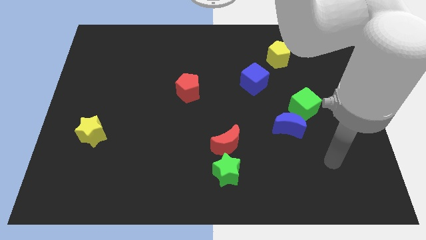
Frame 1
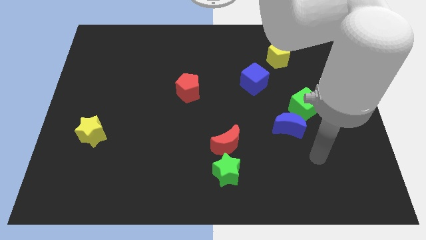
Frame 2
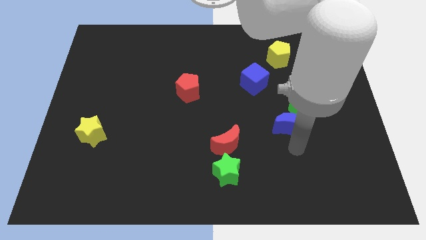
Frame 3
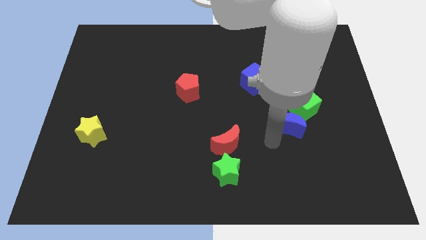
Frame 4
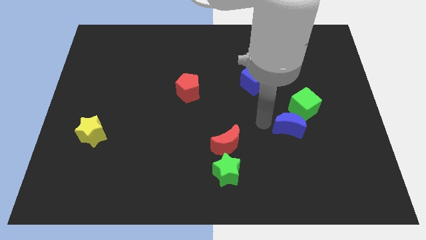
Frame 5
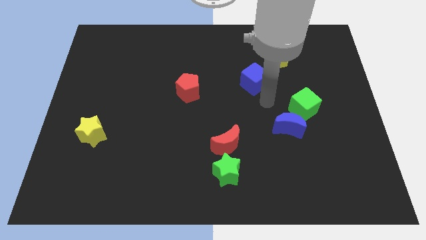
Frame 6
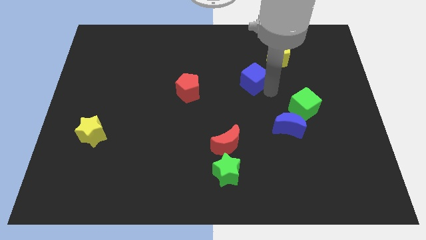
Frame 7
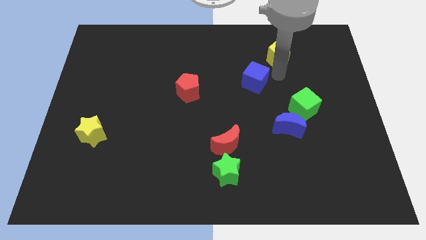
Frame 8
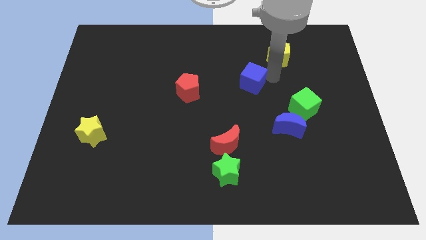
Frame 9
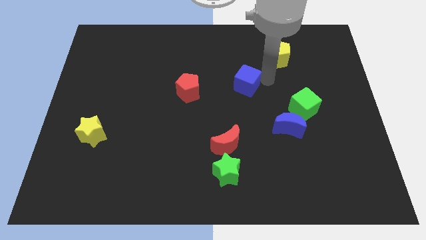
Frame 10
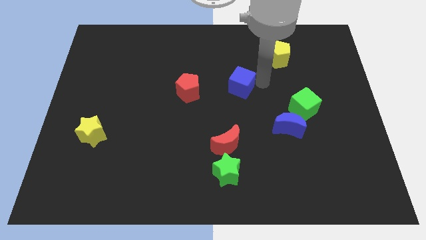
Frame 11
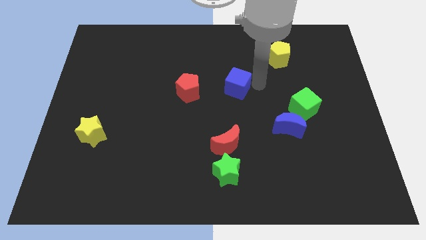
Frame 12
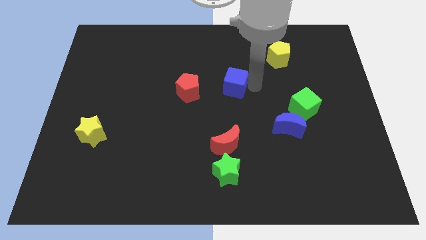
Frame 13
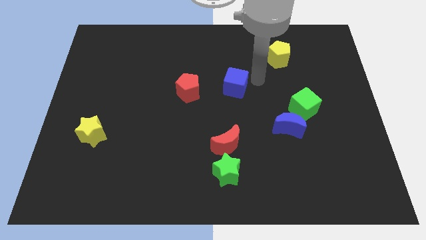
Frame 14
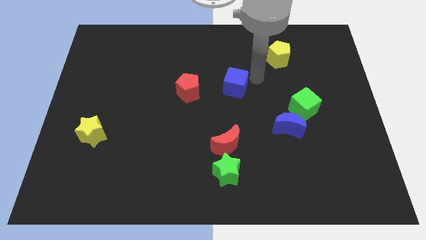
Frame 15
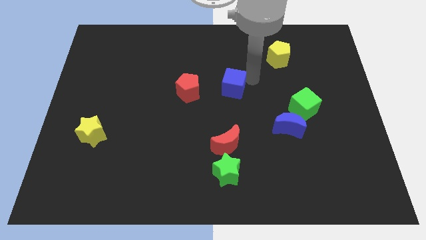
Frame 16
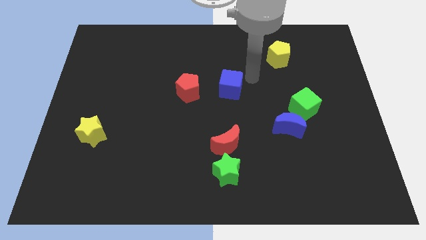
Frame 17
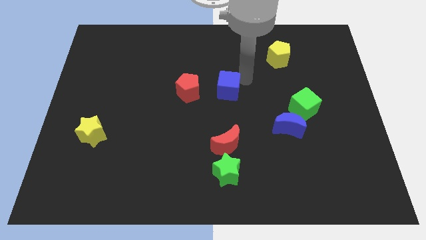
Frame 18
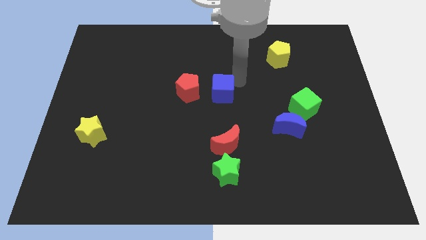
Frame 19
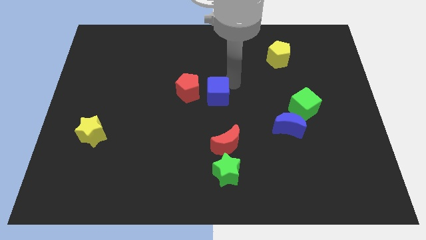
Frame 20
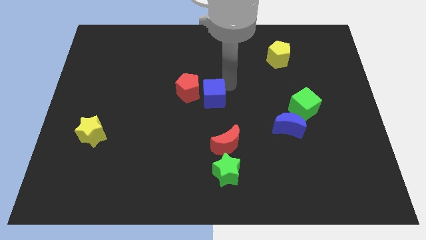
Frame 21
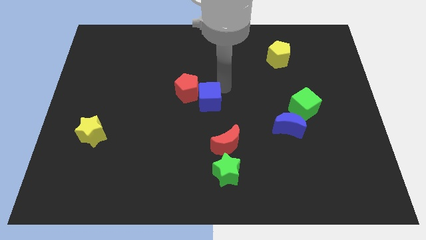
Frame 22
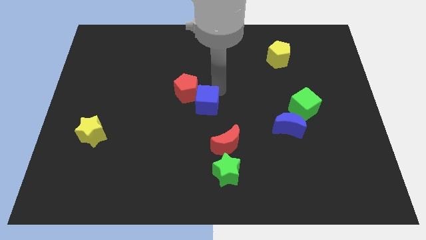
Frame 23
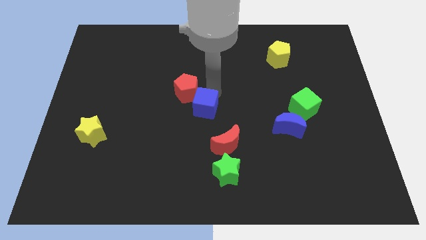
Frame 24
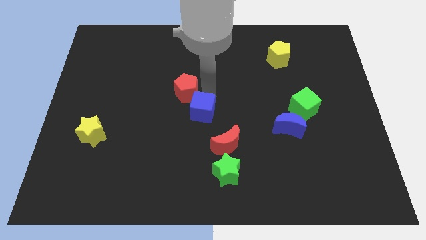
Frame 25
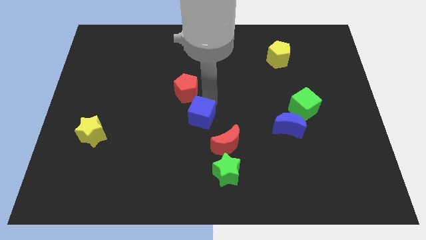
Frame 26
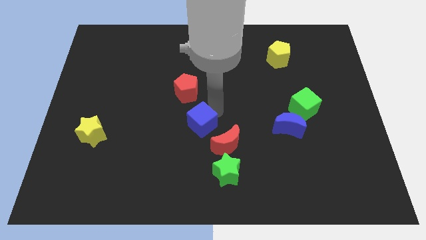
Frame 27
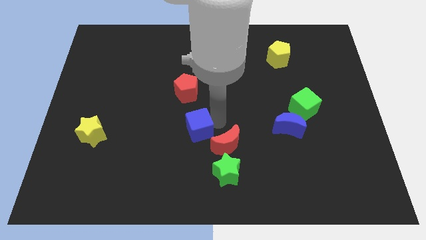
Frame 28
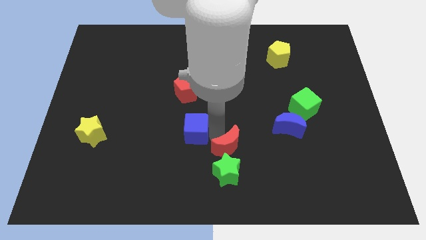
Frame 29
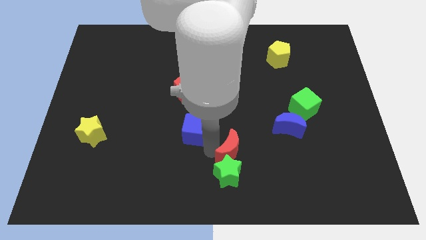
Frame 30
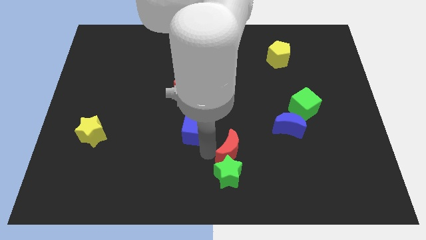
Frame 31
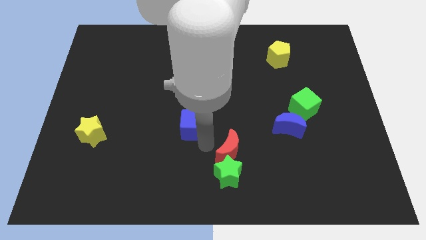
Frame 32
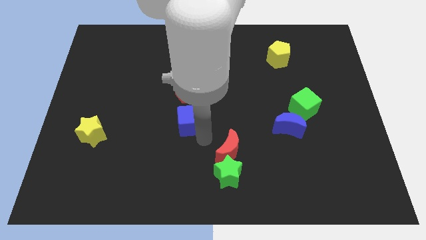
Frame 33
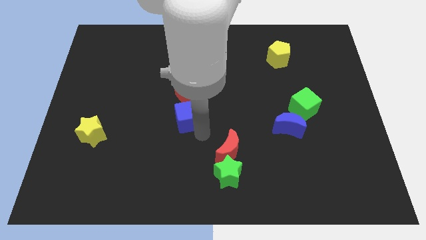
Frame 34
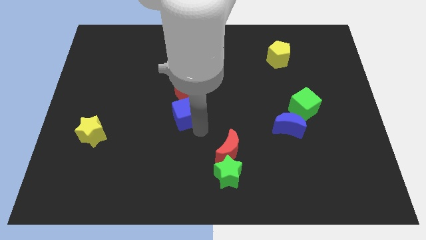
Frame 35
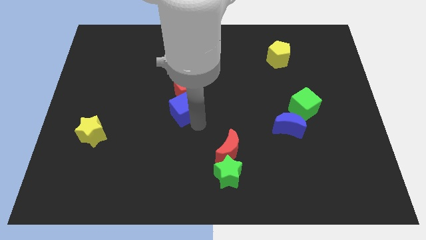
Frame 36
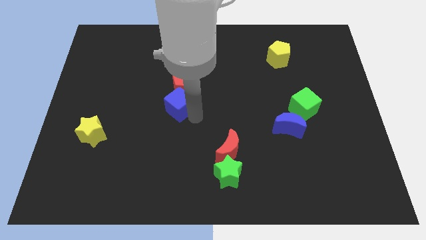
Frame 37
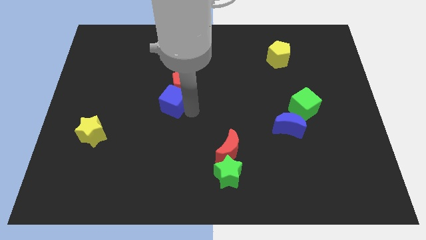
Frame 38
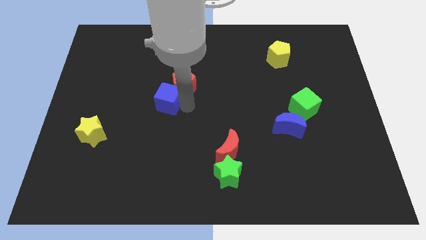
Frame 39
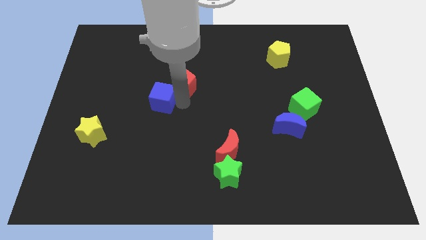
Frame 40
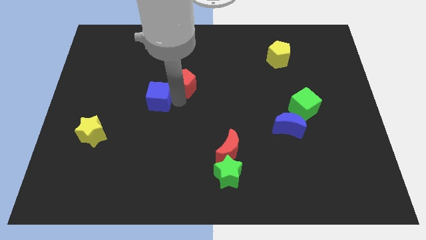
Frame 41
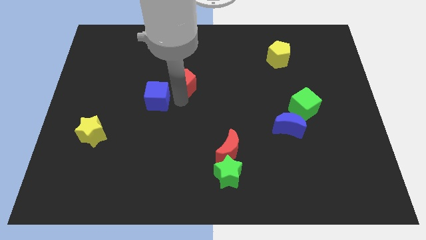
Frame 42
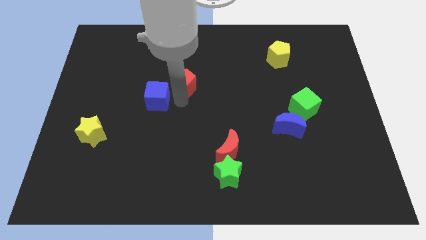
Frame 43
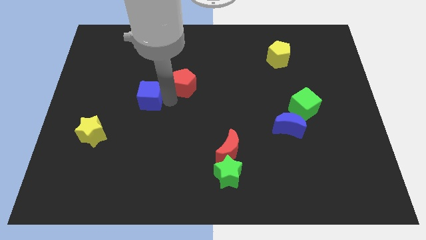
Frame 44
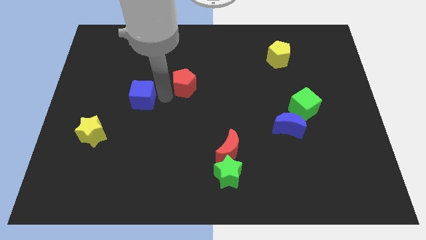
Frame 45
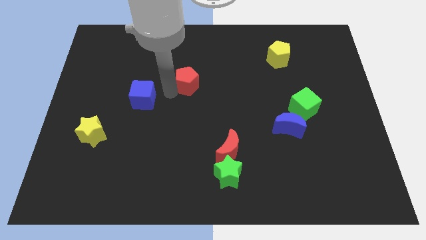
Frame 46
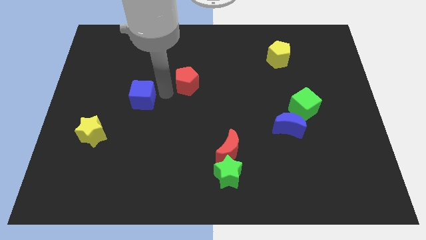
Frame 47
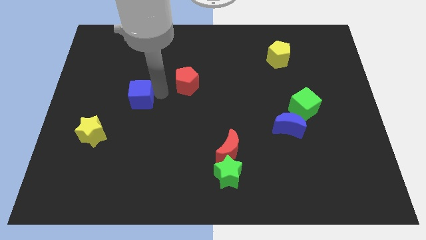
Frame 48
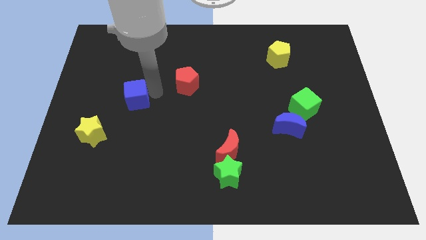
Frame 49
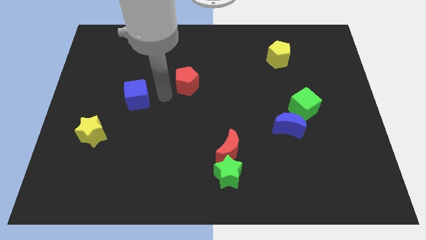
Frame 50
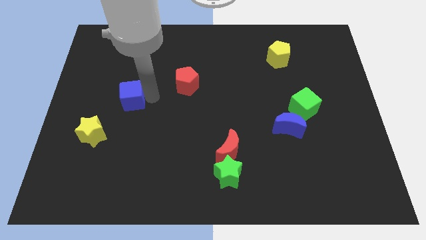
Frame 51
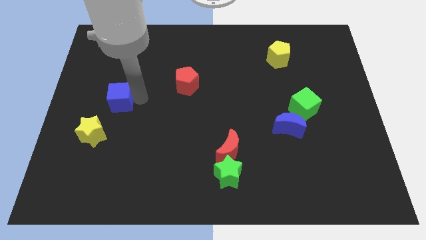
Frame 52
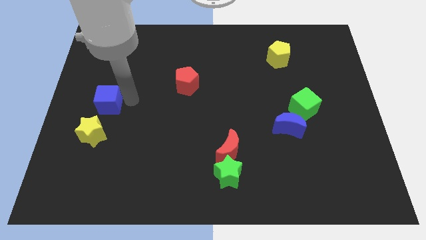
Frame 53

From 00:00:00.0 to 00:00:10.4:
put the blue cube to the center left

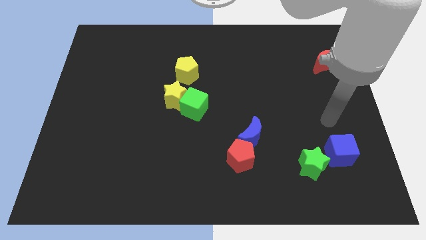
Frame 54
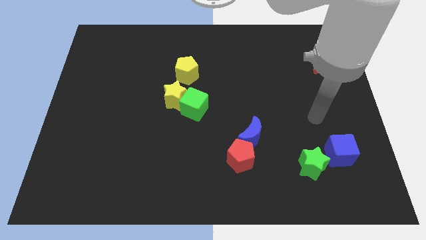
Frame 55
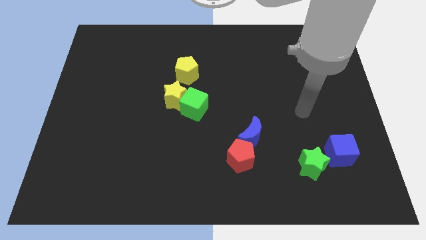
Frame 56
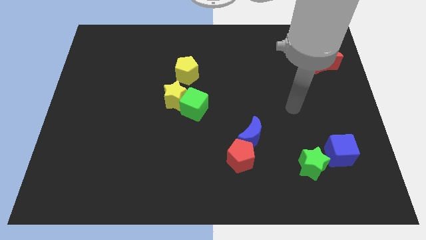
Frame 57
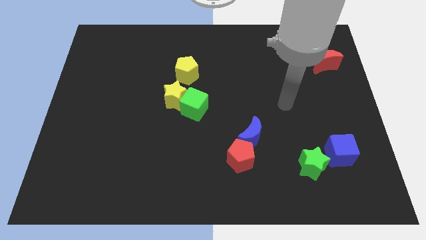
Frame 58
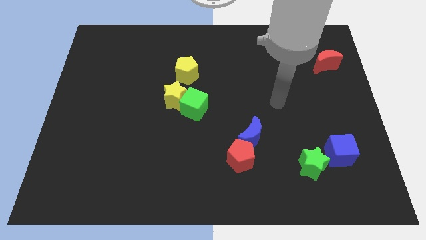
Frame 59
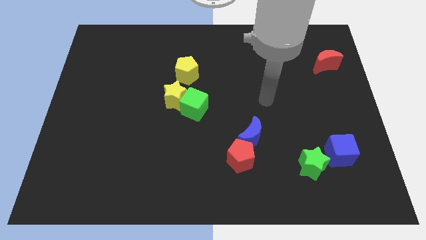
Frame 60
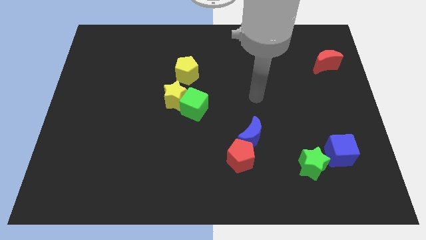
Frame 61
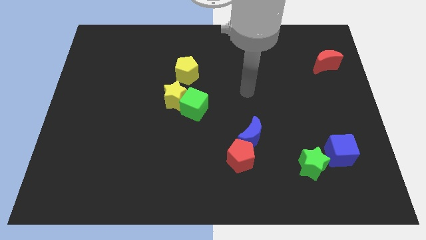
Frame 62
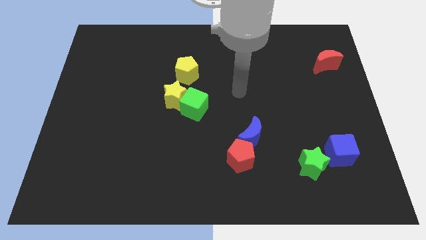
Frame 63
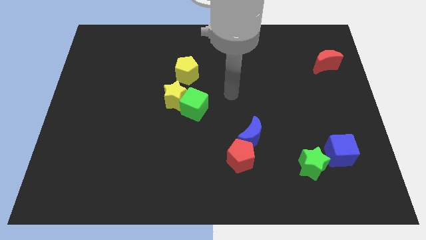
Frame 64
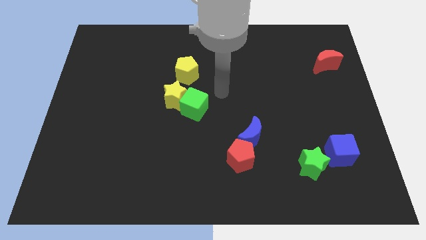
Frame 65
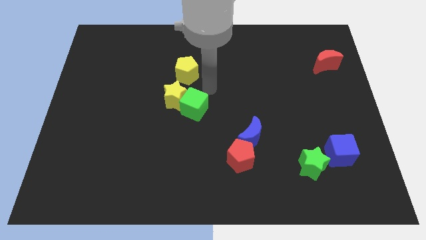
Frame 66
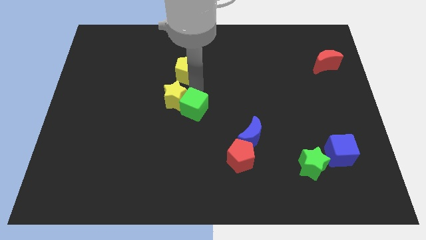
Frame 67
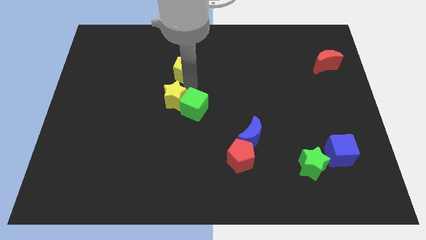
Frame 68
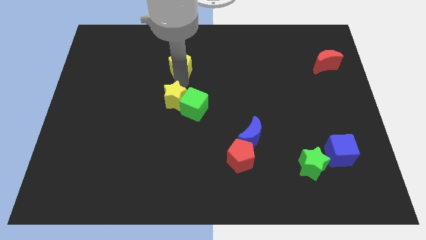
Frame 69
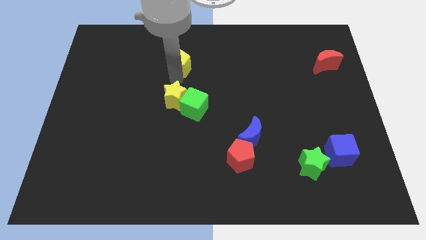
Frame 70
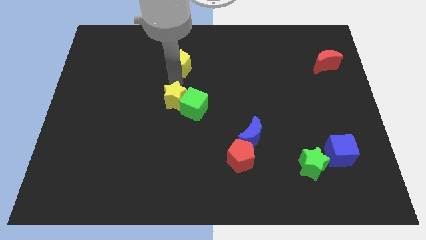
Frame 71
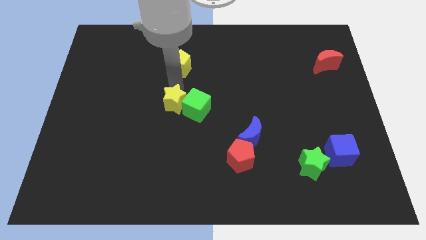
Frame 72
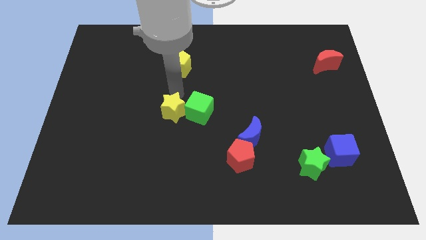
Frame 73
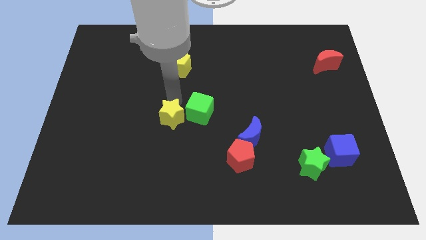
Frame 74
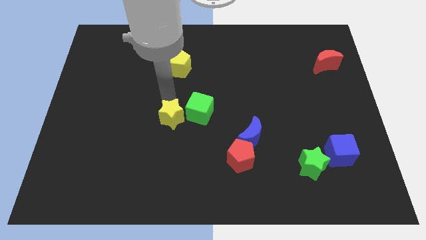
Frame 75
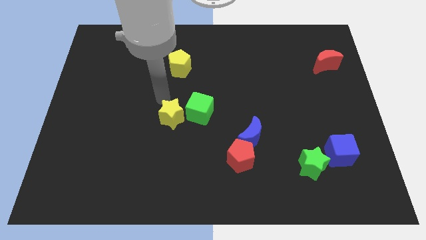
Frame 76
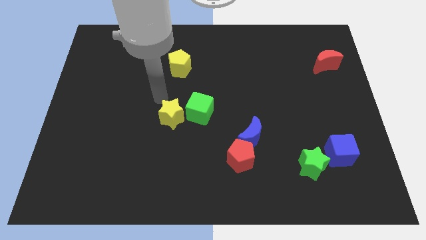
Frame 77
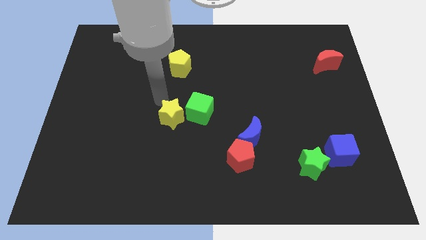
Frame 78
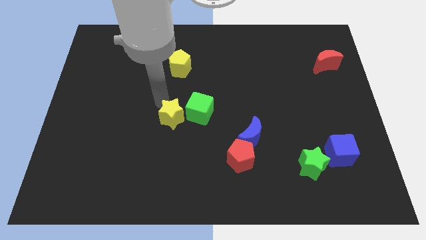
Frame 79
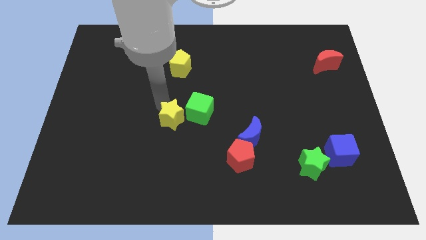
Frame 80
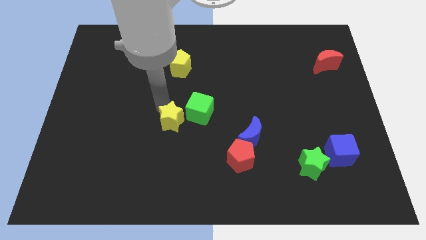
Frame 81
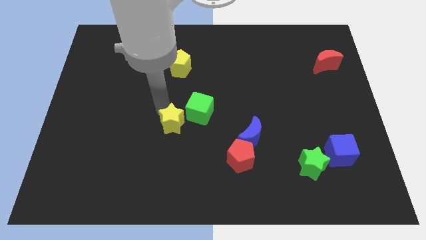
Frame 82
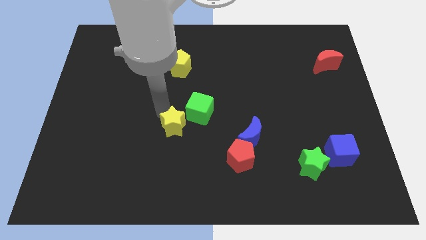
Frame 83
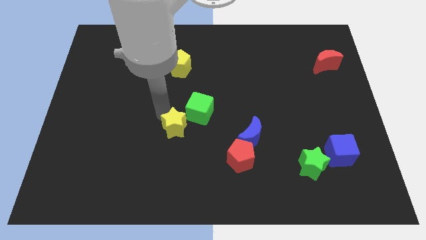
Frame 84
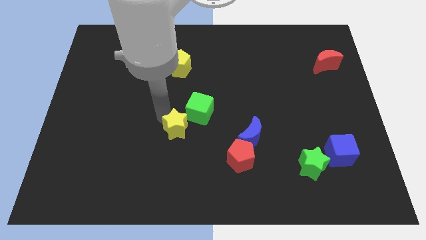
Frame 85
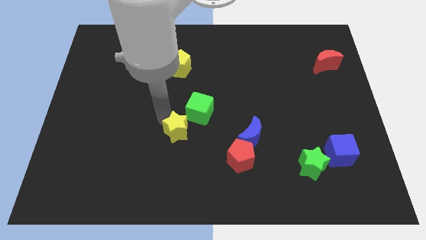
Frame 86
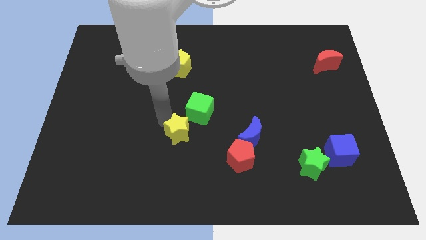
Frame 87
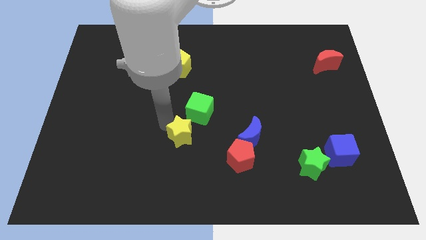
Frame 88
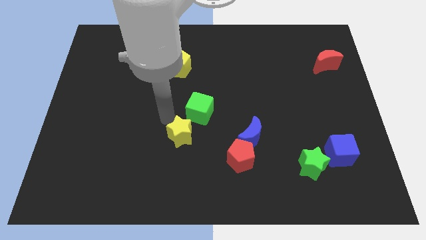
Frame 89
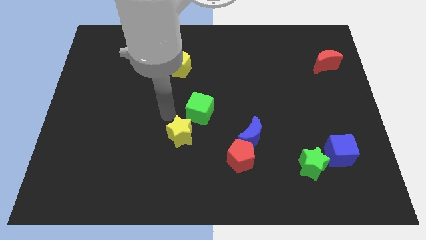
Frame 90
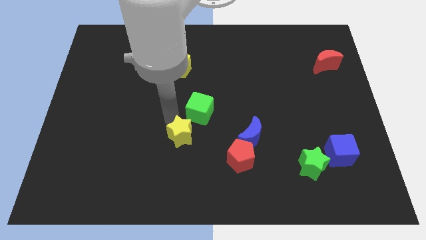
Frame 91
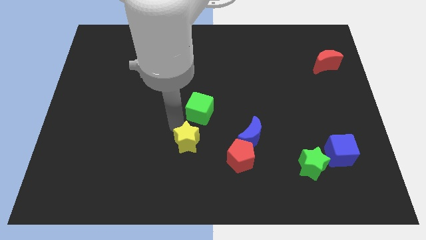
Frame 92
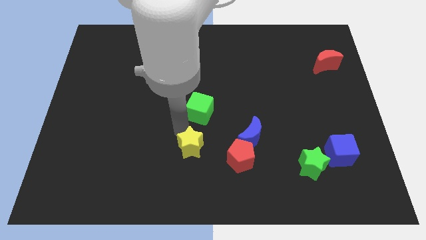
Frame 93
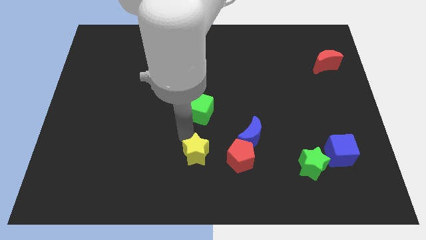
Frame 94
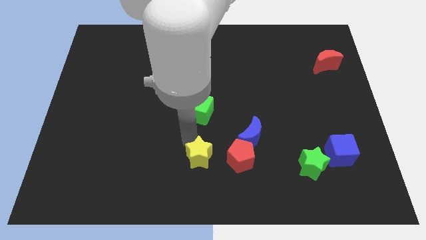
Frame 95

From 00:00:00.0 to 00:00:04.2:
put the yellow star to the bottom
